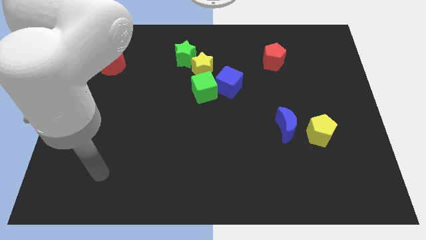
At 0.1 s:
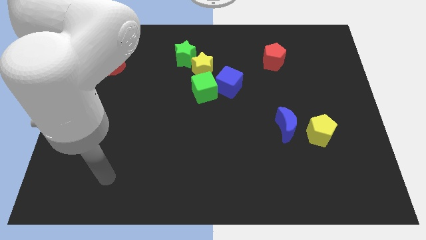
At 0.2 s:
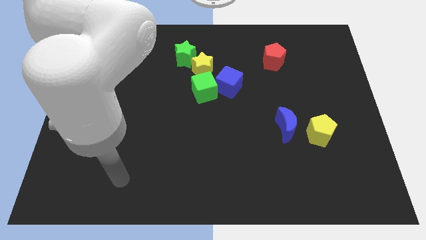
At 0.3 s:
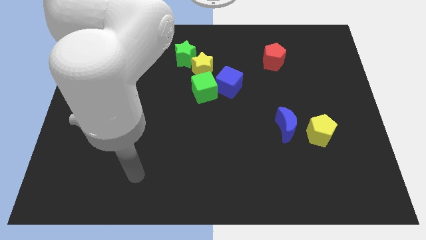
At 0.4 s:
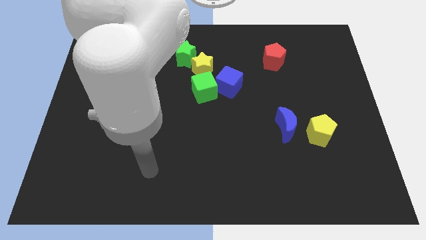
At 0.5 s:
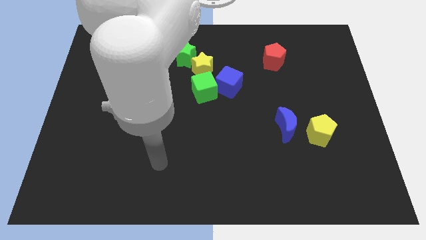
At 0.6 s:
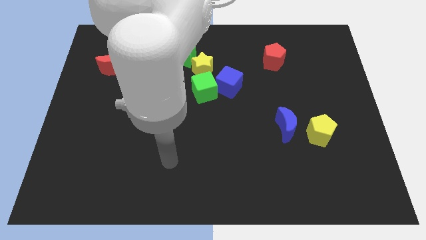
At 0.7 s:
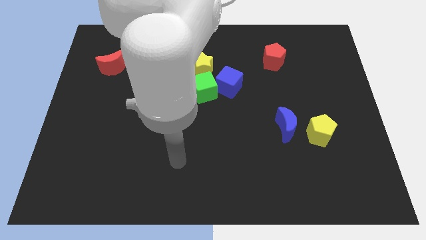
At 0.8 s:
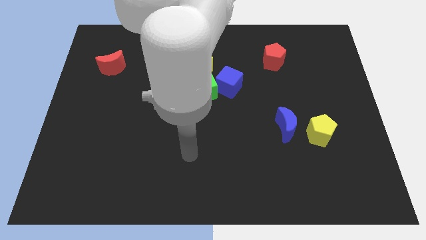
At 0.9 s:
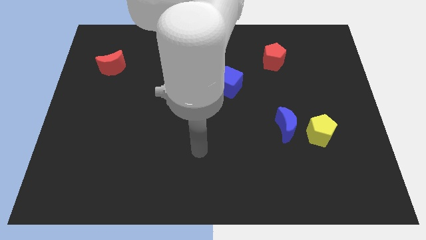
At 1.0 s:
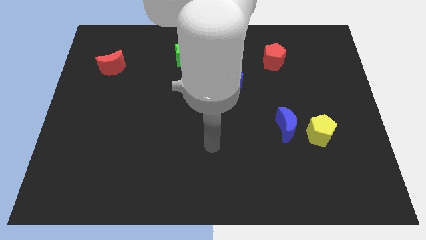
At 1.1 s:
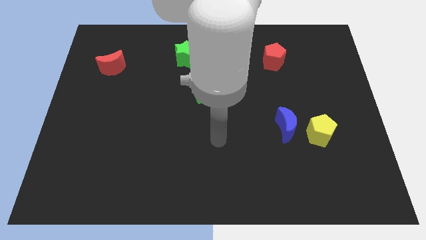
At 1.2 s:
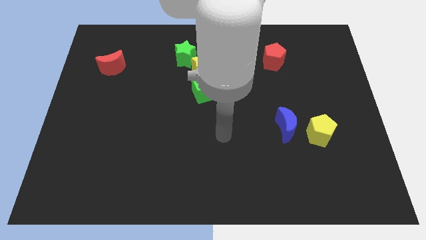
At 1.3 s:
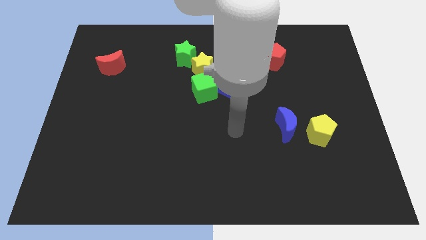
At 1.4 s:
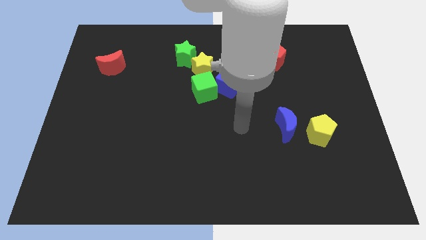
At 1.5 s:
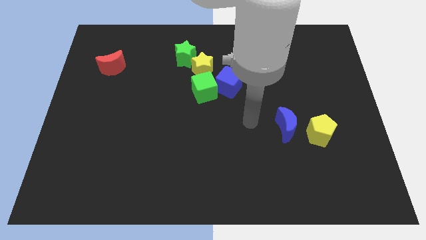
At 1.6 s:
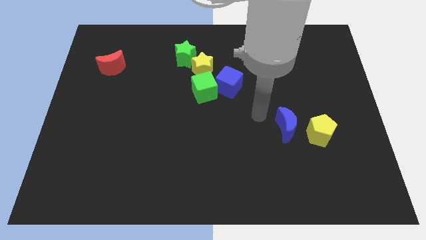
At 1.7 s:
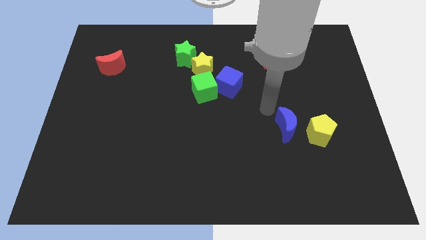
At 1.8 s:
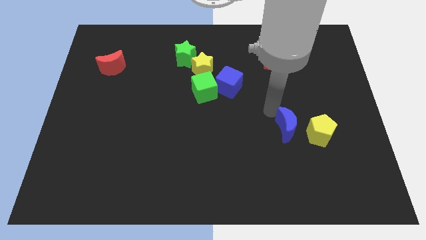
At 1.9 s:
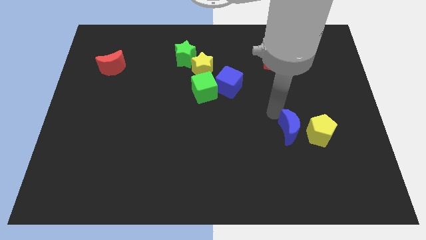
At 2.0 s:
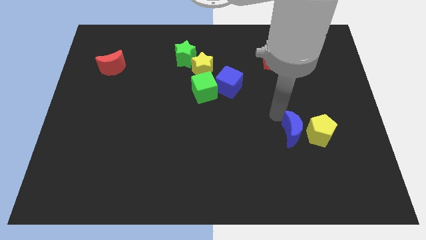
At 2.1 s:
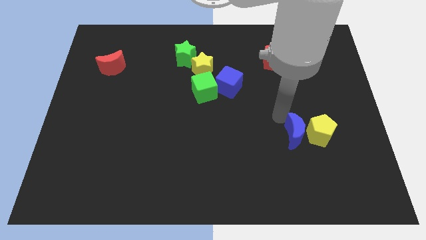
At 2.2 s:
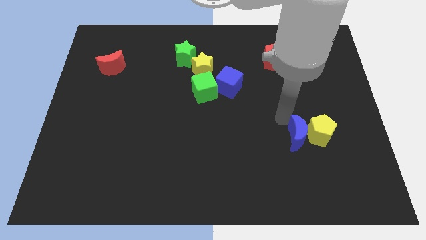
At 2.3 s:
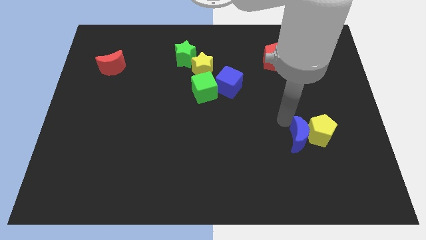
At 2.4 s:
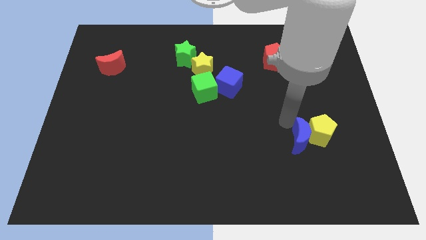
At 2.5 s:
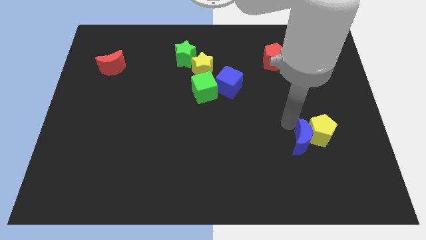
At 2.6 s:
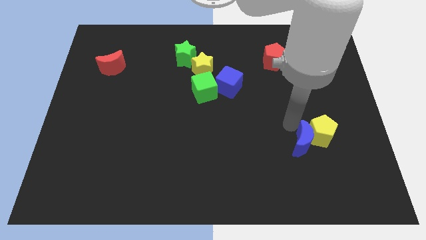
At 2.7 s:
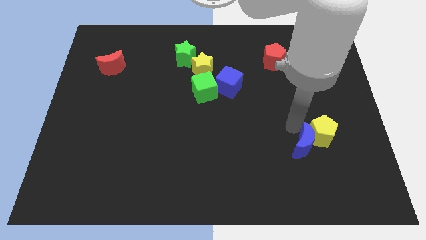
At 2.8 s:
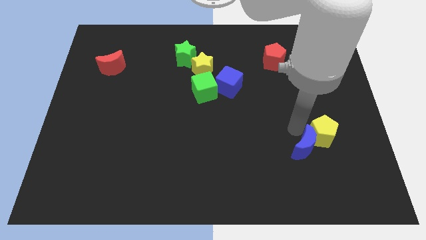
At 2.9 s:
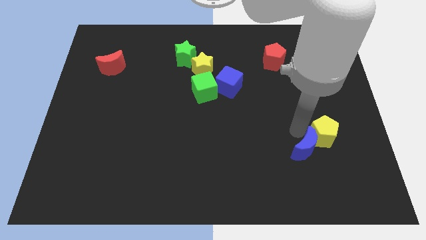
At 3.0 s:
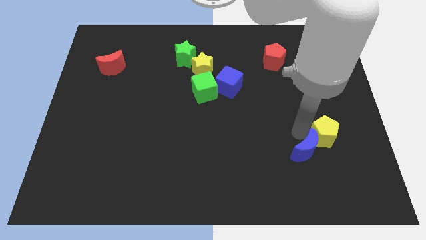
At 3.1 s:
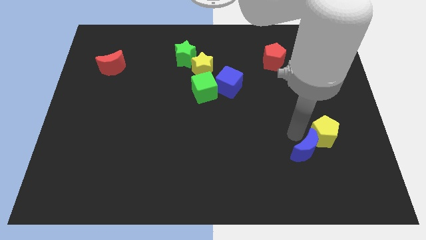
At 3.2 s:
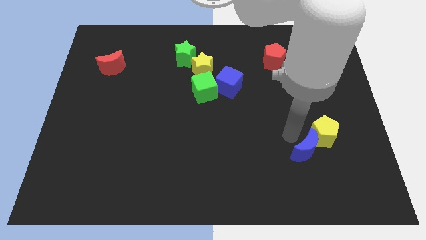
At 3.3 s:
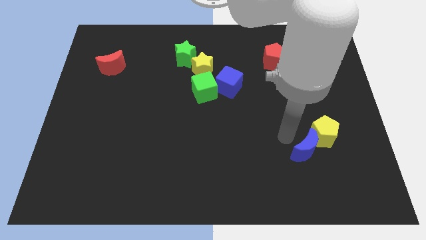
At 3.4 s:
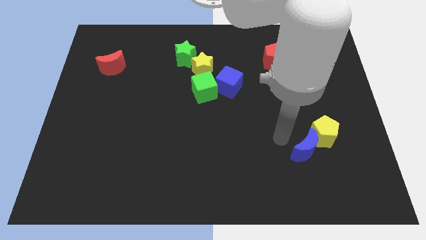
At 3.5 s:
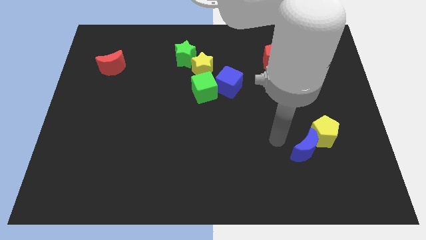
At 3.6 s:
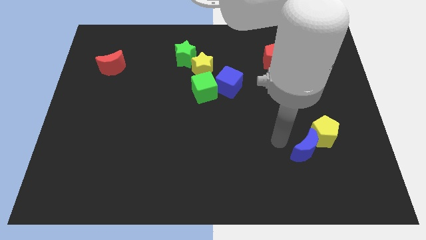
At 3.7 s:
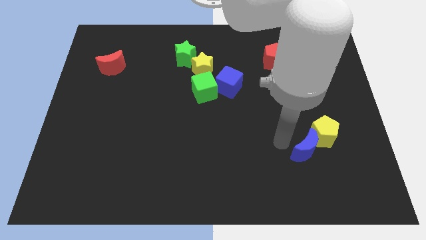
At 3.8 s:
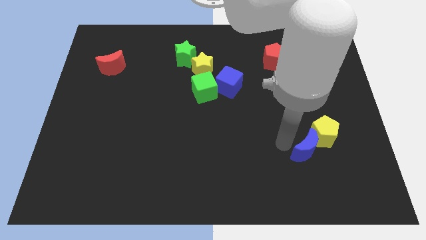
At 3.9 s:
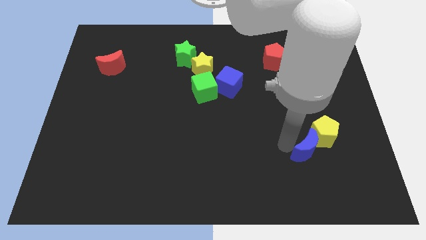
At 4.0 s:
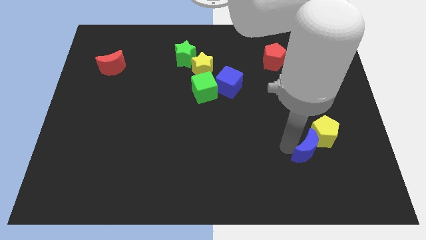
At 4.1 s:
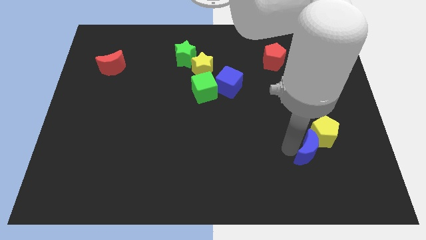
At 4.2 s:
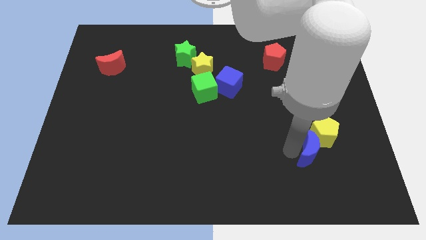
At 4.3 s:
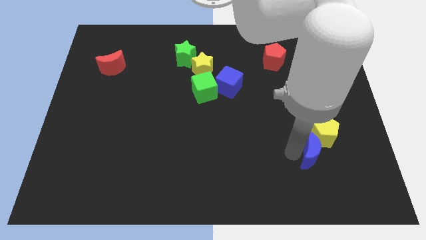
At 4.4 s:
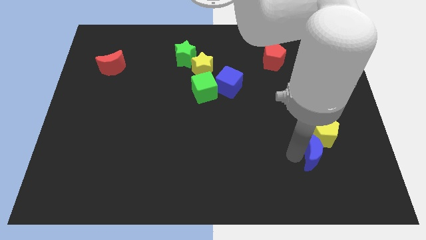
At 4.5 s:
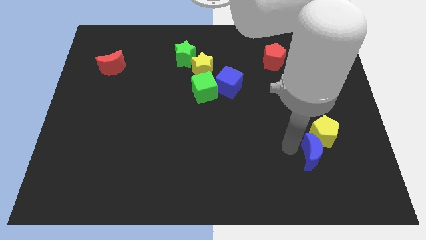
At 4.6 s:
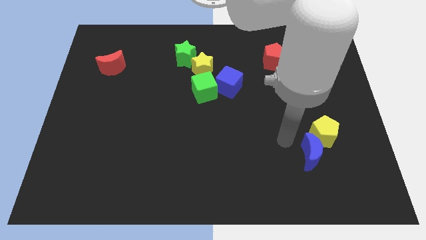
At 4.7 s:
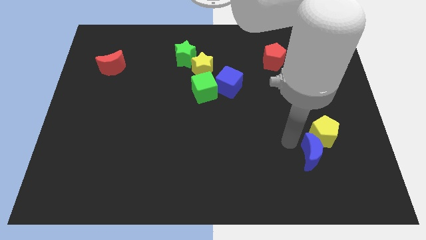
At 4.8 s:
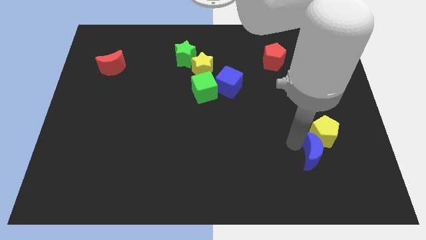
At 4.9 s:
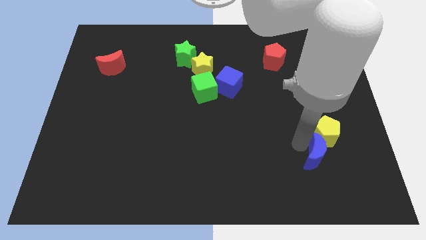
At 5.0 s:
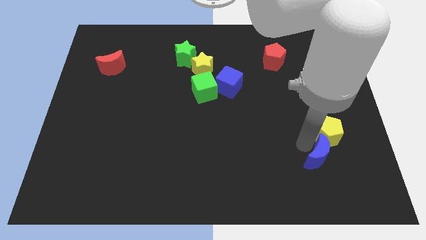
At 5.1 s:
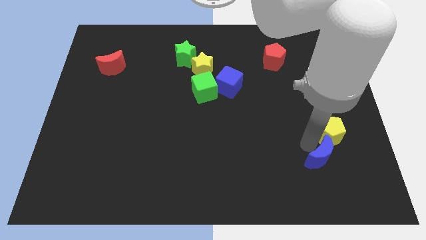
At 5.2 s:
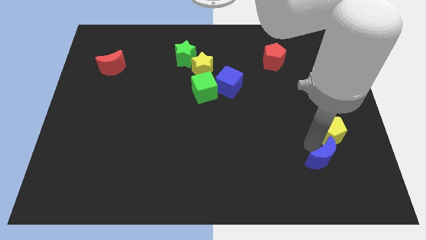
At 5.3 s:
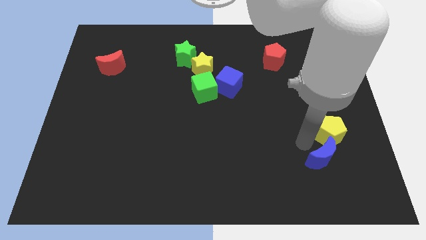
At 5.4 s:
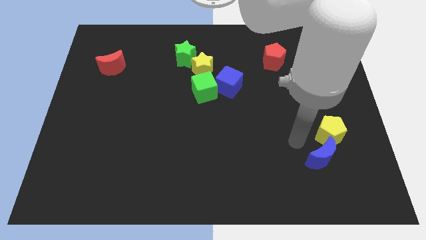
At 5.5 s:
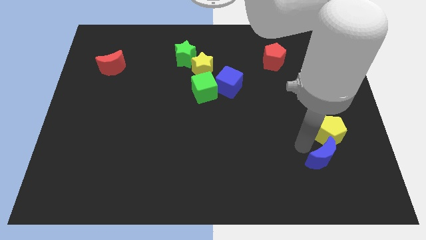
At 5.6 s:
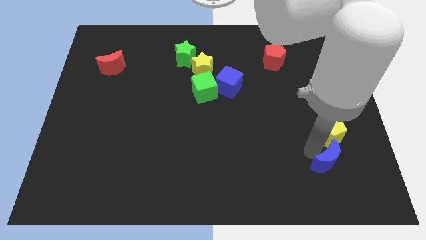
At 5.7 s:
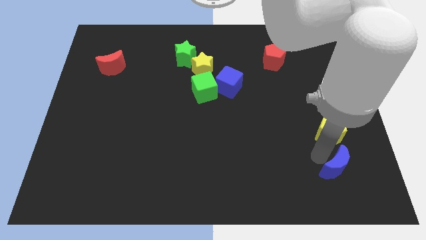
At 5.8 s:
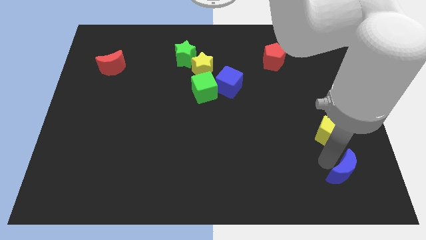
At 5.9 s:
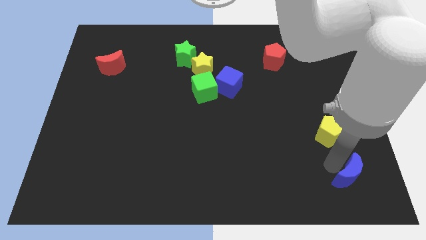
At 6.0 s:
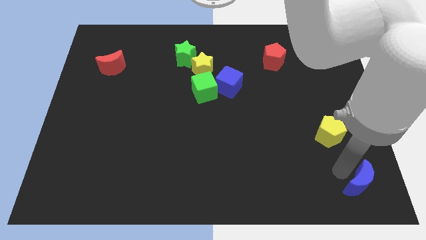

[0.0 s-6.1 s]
put the blue moon to the lower right corner
